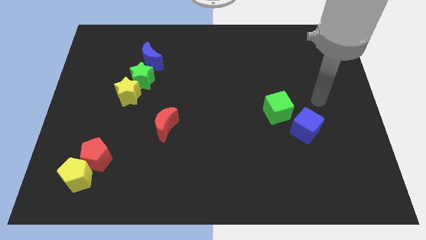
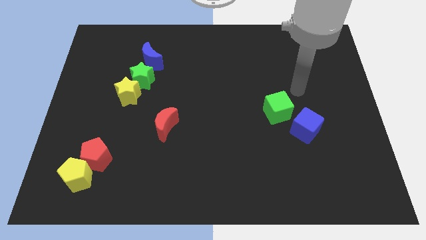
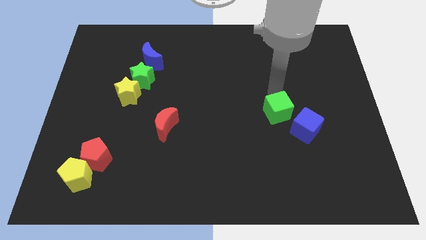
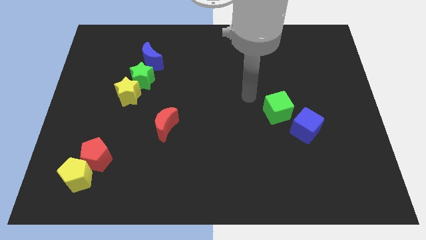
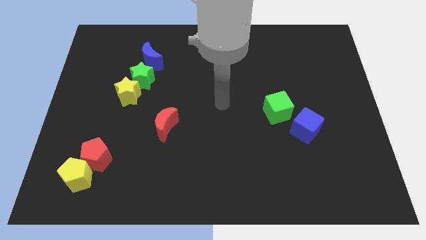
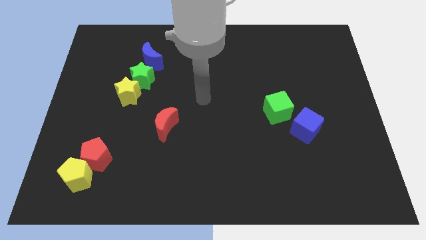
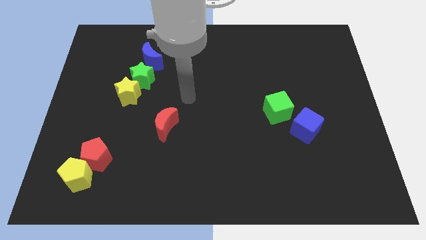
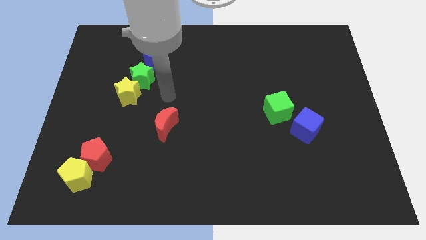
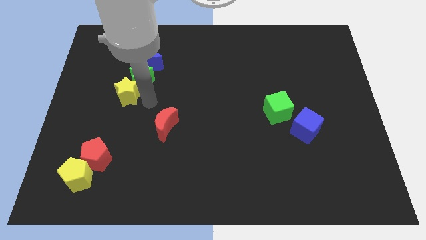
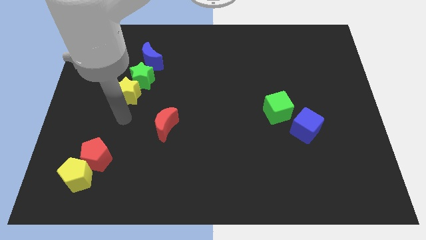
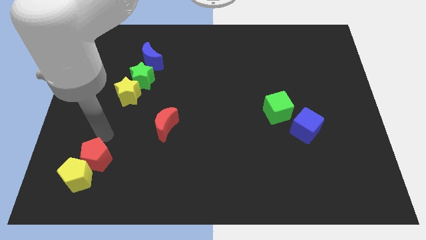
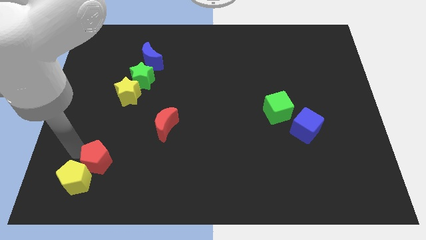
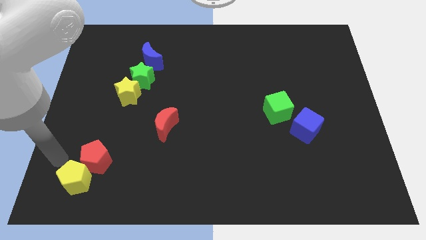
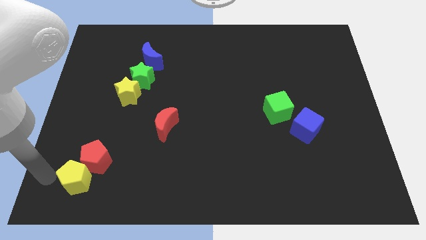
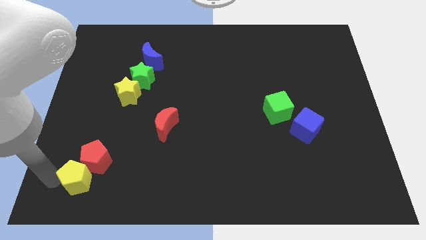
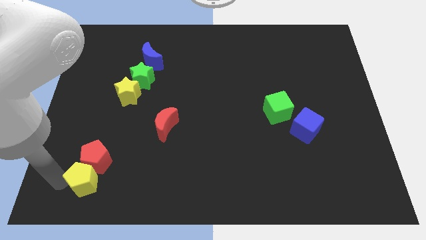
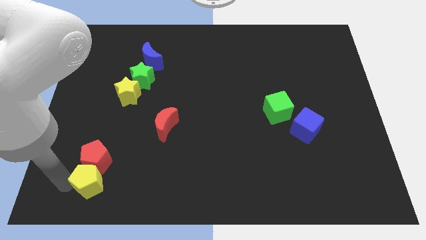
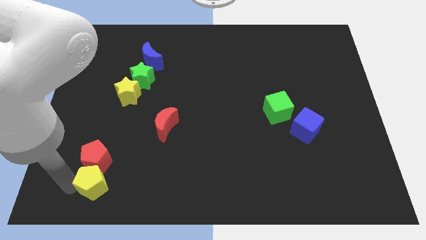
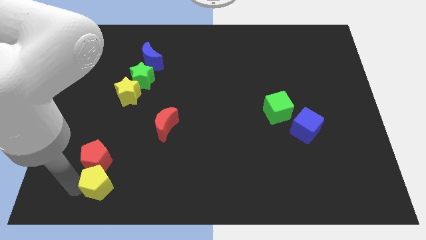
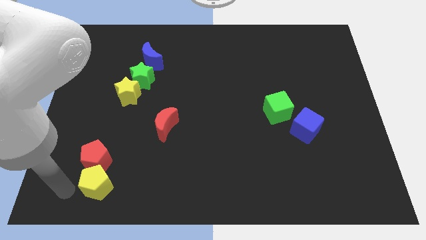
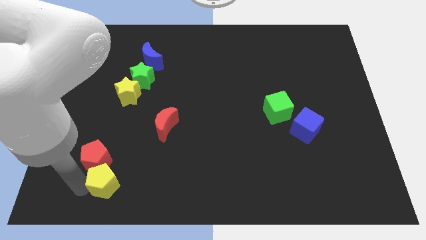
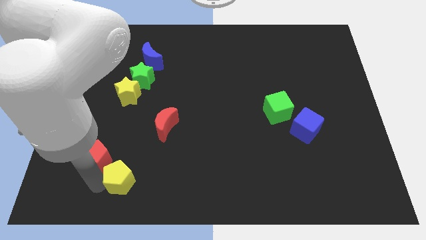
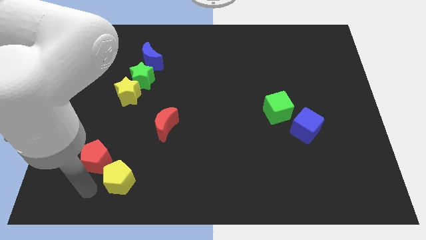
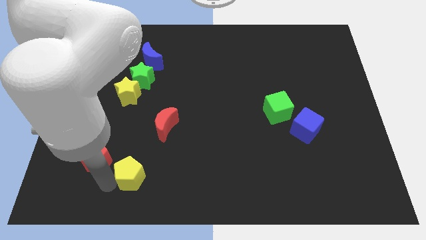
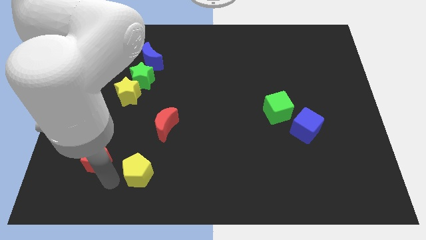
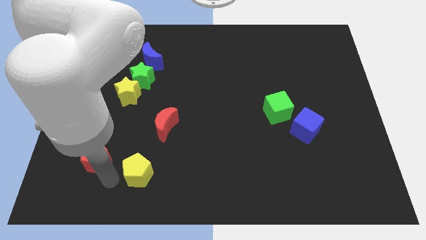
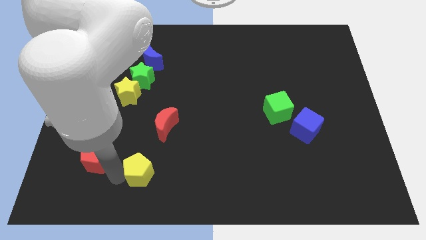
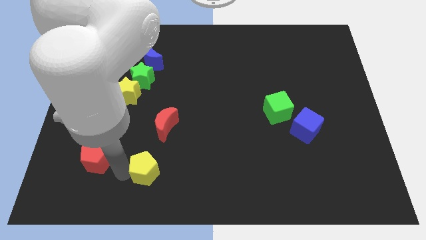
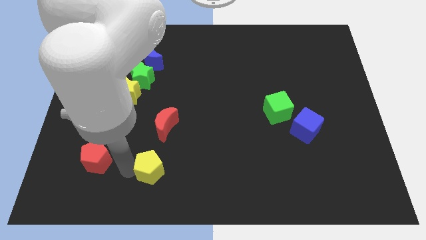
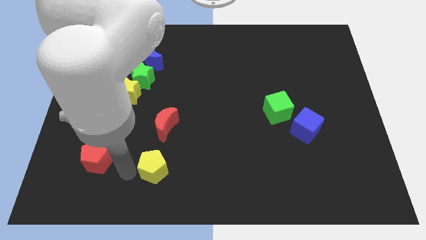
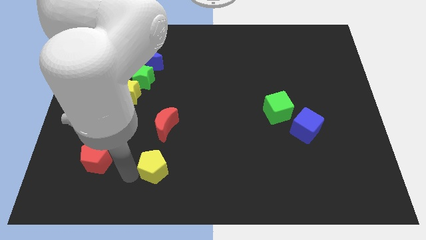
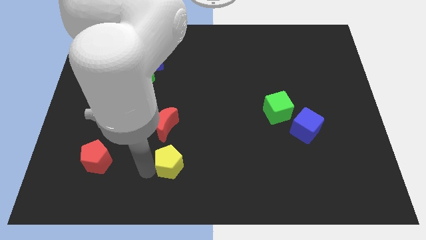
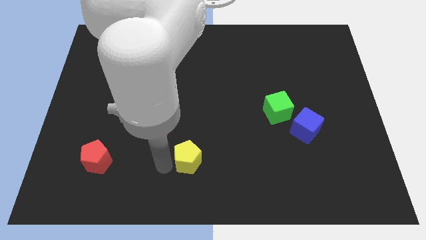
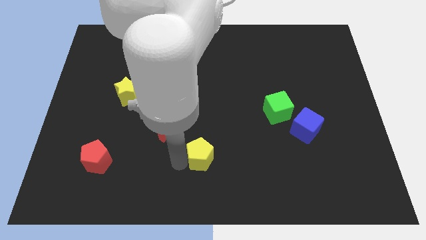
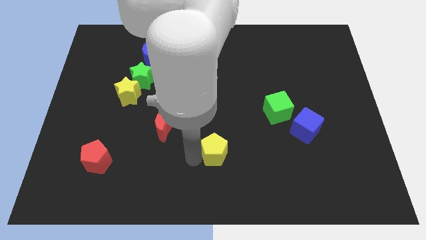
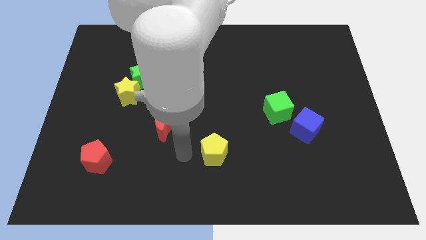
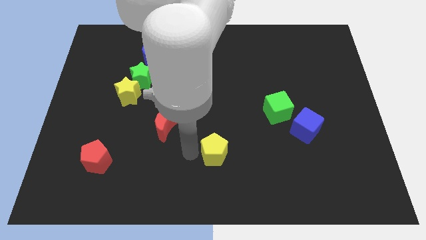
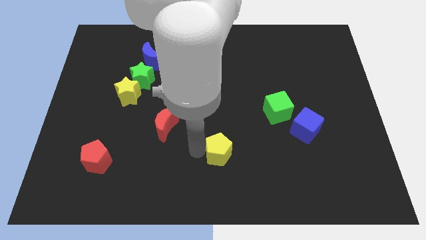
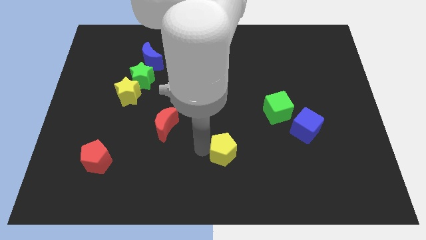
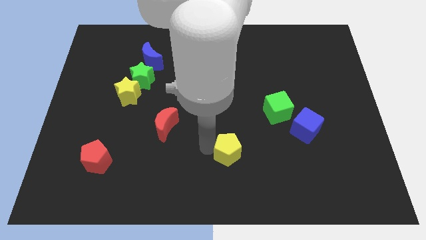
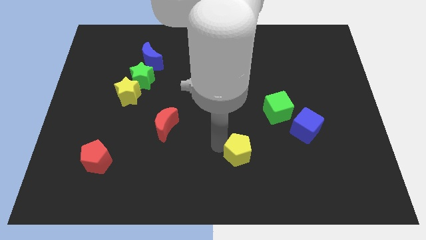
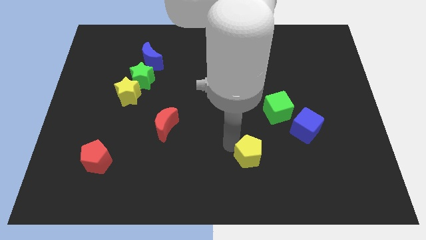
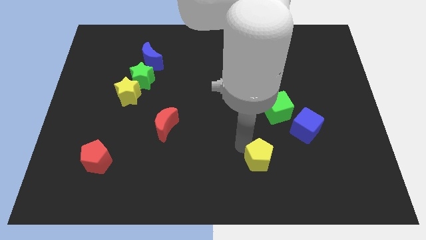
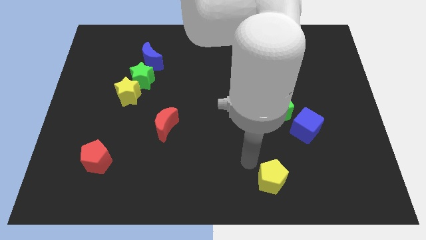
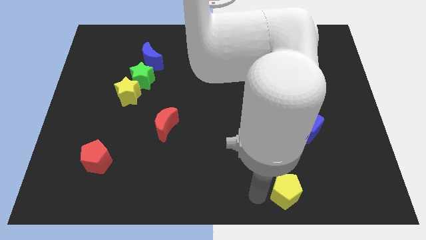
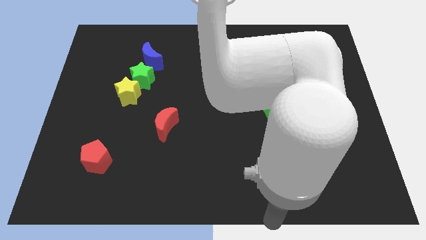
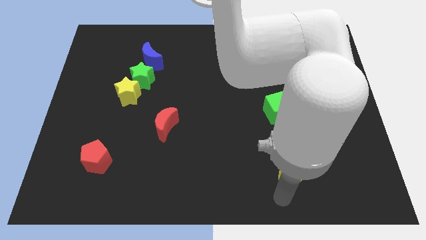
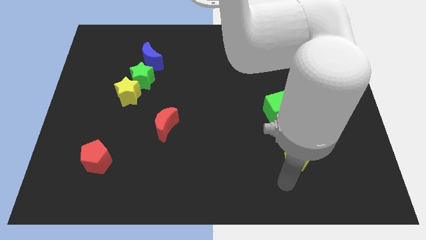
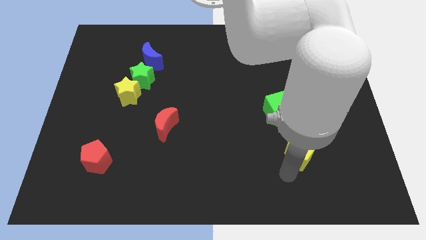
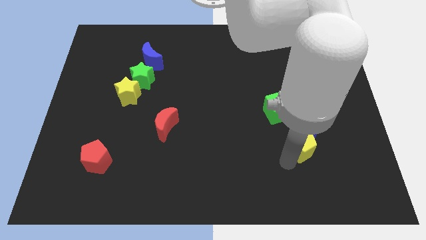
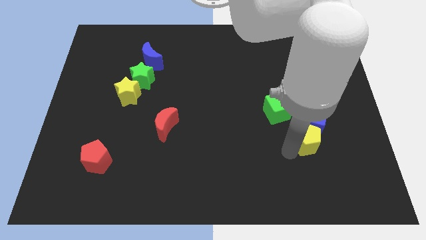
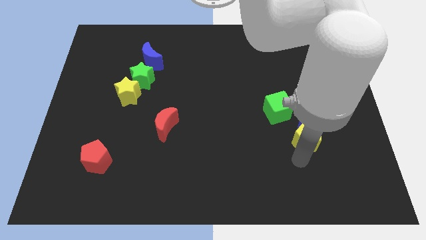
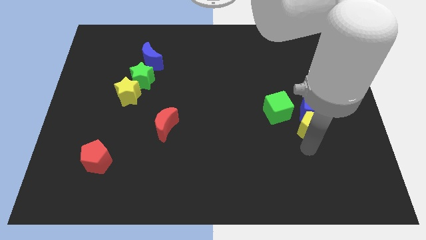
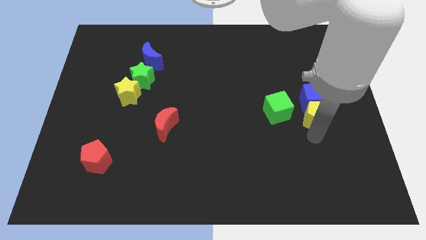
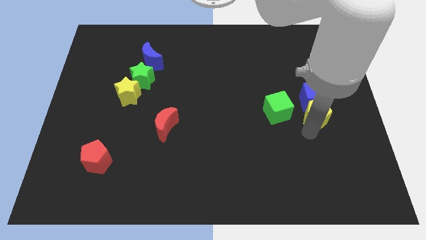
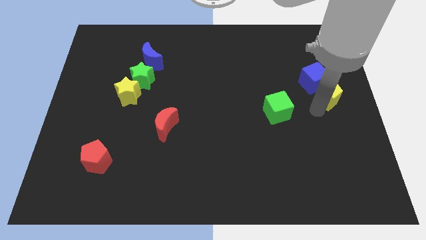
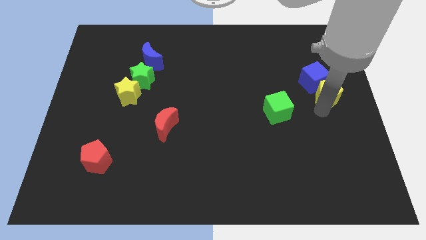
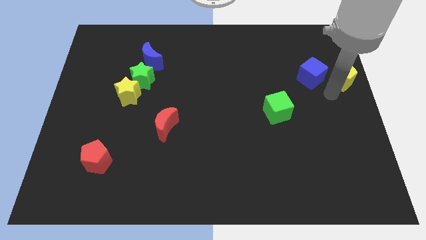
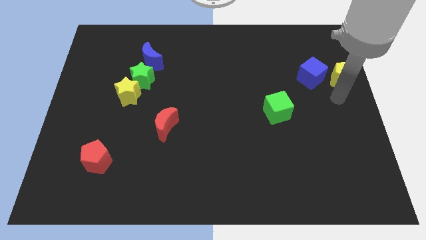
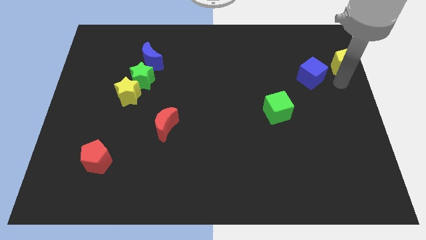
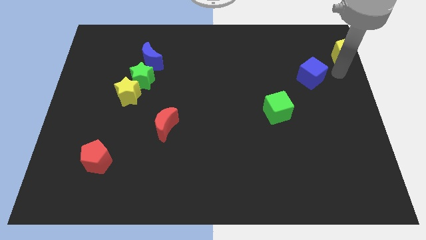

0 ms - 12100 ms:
slide the yellow pentagon to the top right of the board

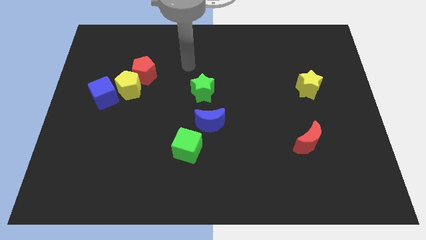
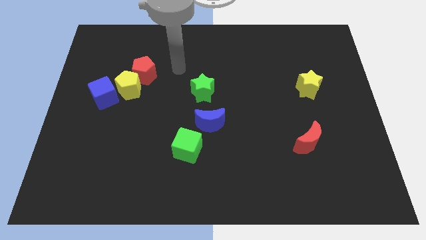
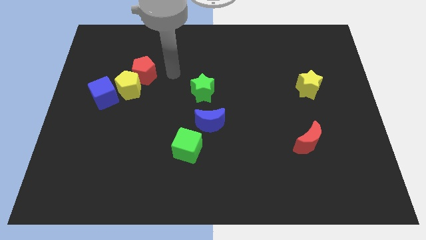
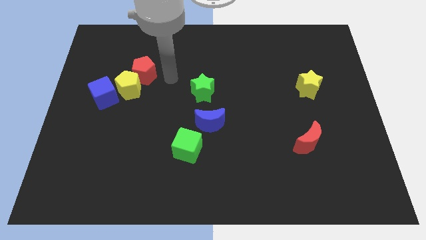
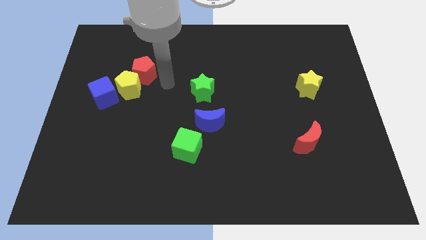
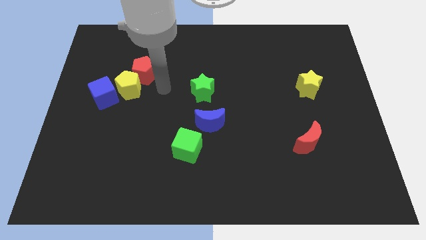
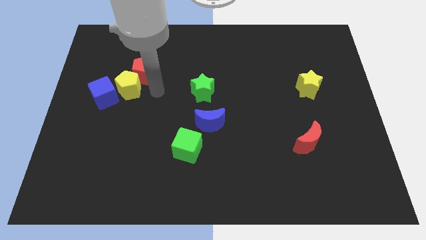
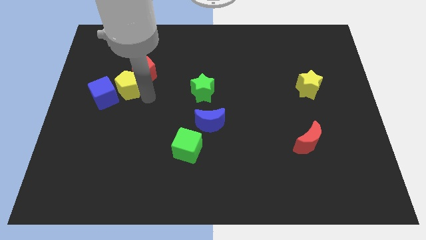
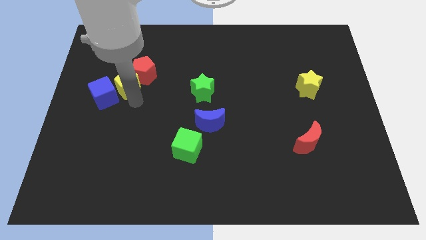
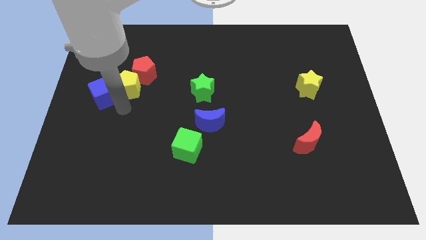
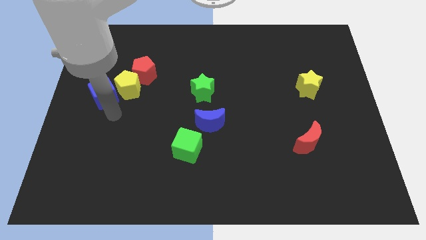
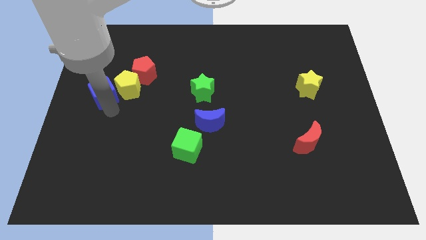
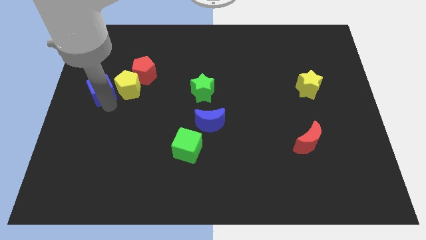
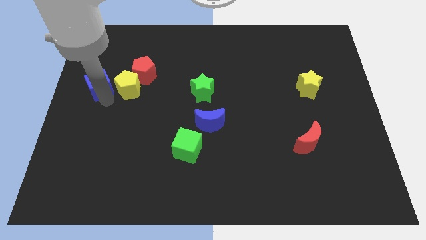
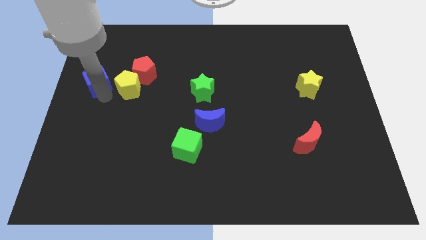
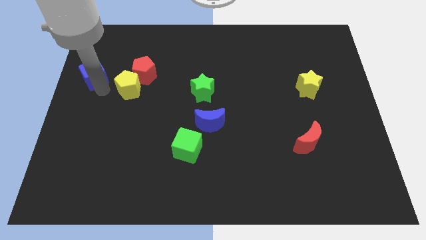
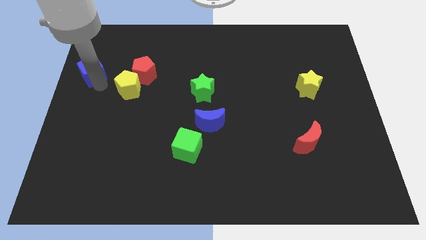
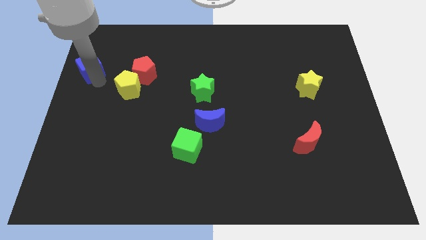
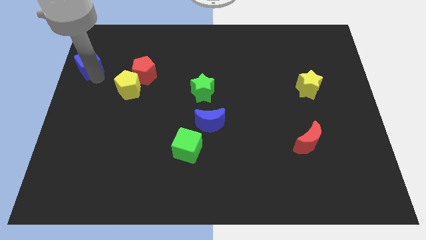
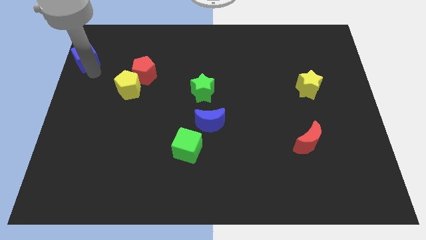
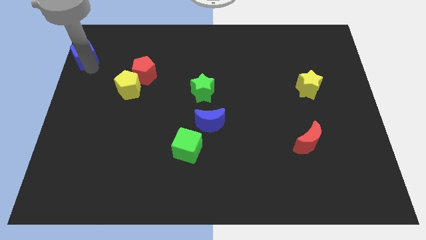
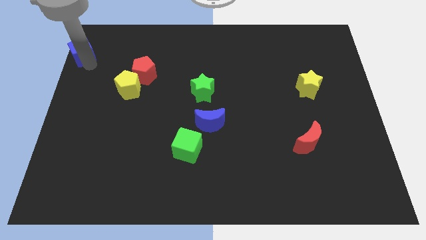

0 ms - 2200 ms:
put the blue cube to the top left
